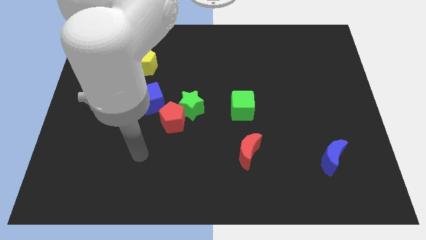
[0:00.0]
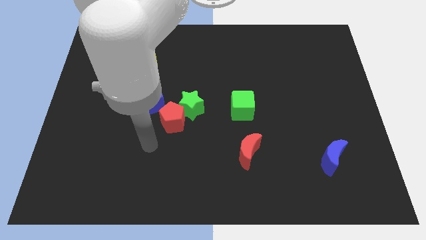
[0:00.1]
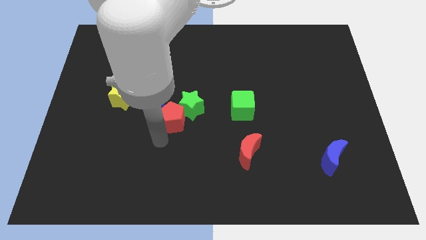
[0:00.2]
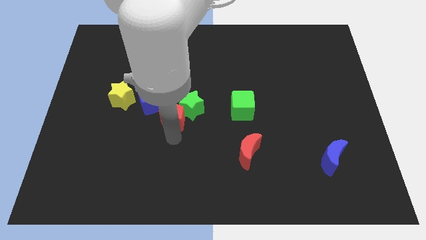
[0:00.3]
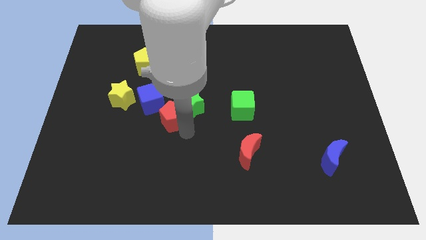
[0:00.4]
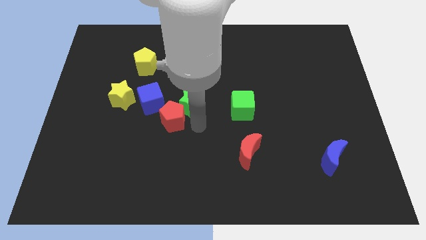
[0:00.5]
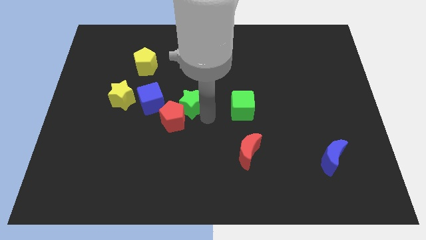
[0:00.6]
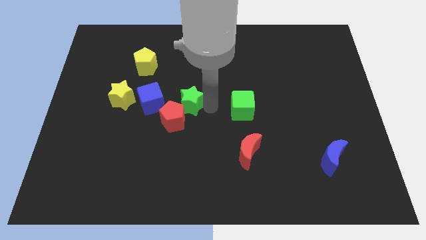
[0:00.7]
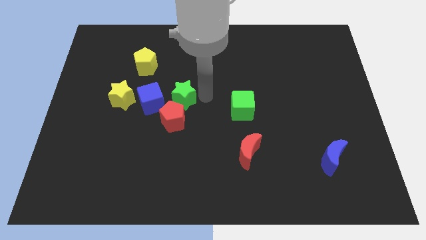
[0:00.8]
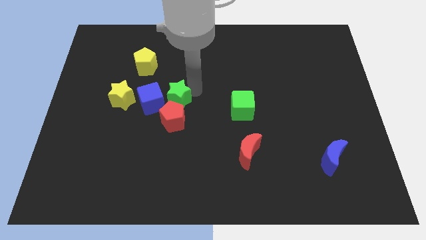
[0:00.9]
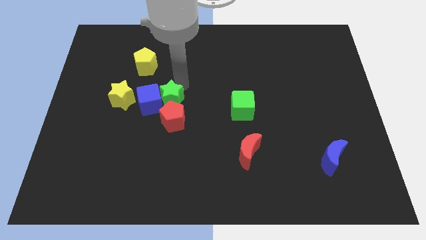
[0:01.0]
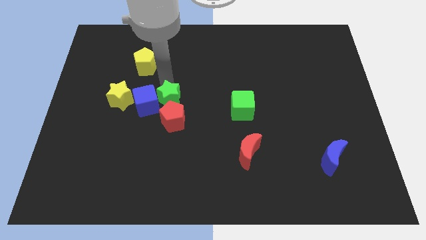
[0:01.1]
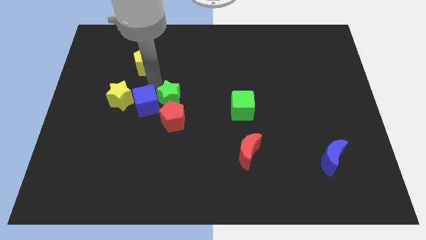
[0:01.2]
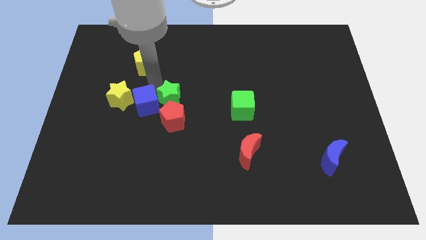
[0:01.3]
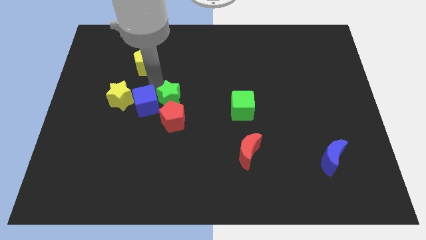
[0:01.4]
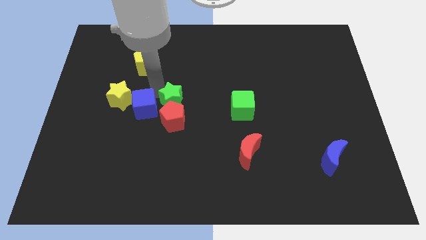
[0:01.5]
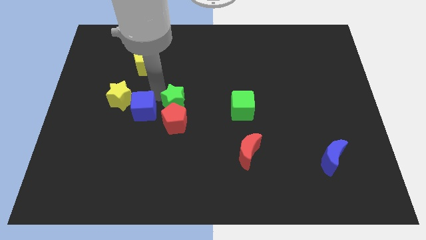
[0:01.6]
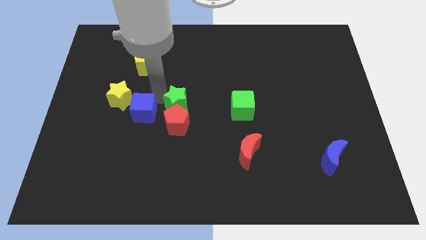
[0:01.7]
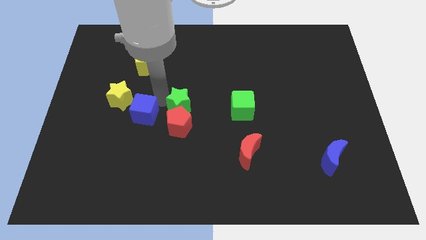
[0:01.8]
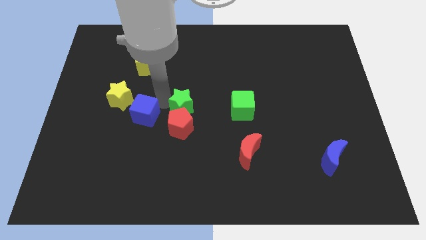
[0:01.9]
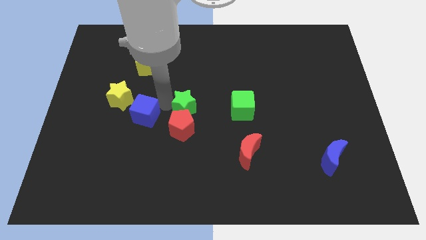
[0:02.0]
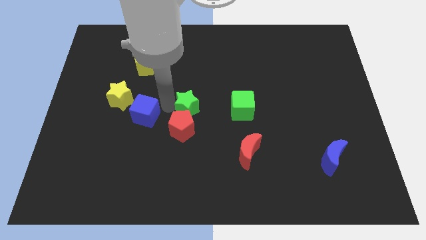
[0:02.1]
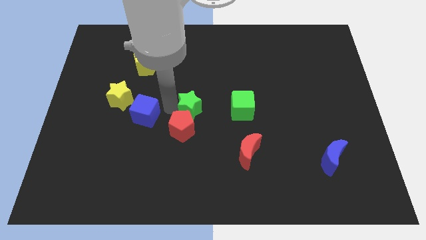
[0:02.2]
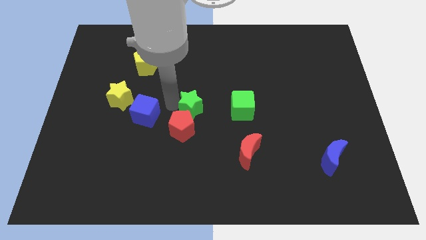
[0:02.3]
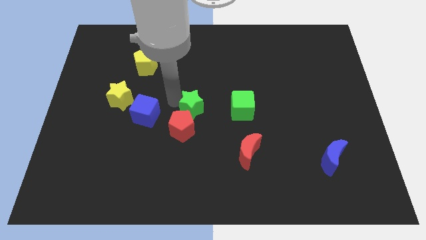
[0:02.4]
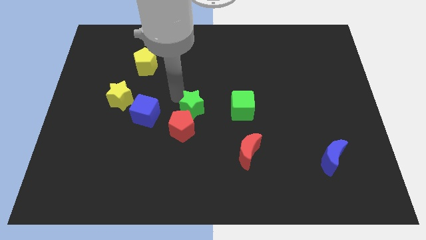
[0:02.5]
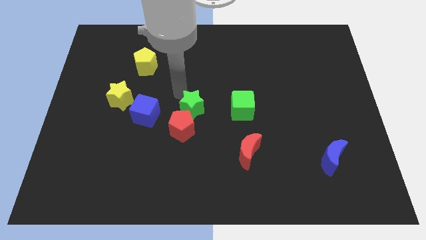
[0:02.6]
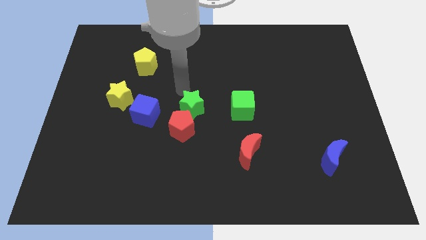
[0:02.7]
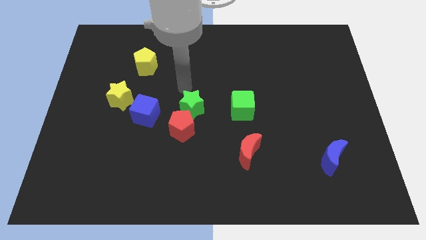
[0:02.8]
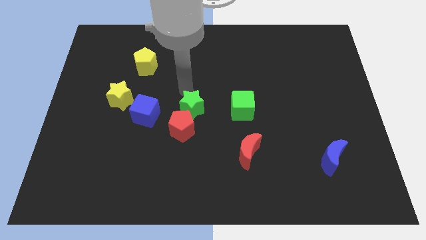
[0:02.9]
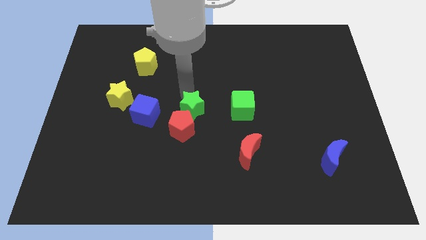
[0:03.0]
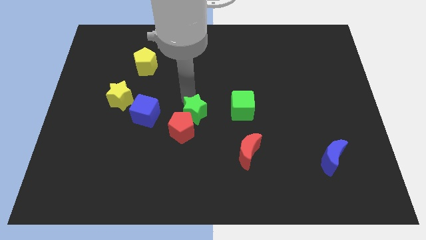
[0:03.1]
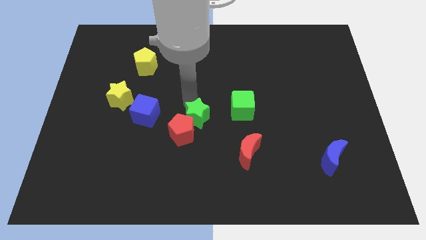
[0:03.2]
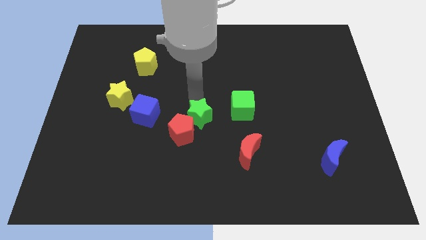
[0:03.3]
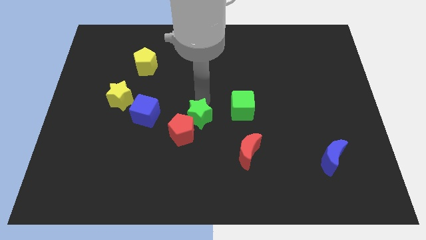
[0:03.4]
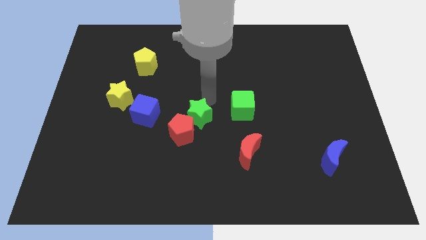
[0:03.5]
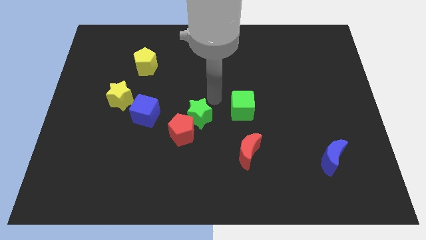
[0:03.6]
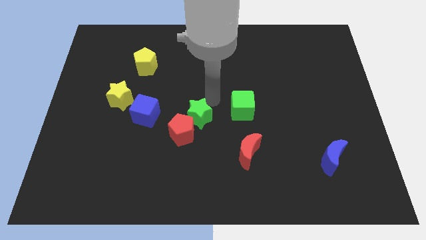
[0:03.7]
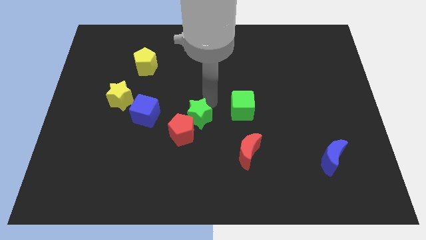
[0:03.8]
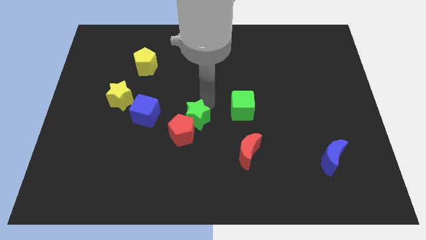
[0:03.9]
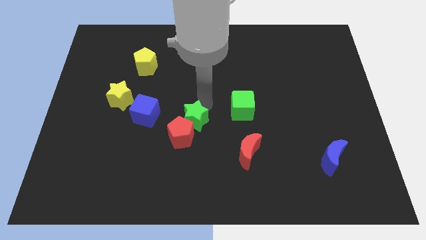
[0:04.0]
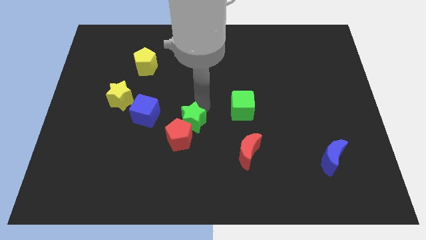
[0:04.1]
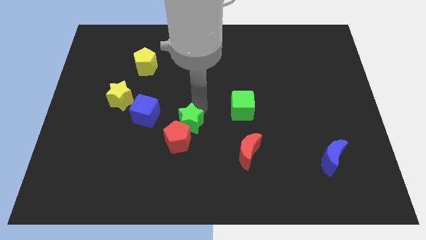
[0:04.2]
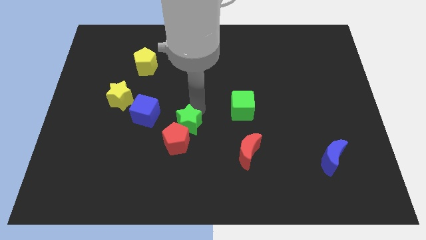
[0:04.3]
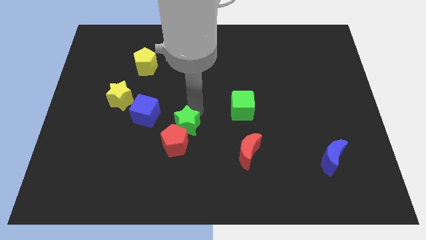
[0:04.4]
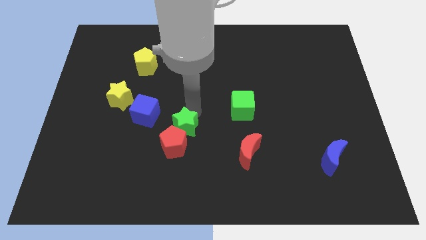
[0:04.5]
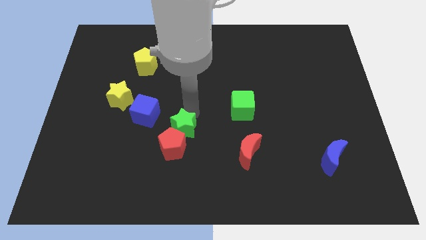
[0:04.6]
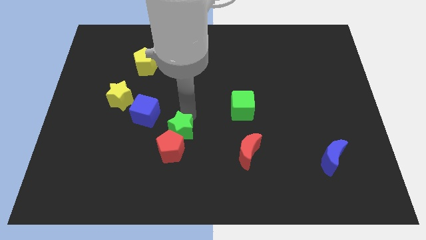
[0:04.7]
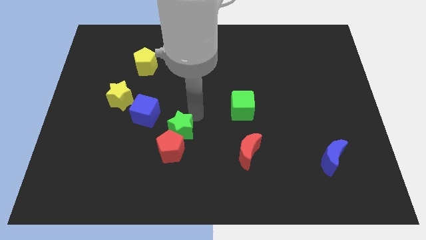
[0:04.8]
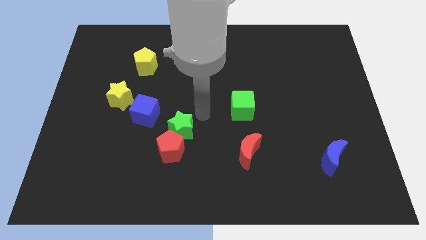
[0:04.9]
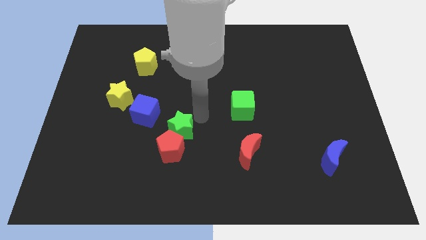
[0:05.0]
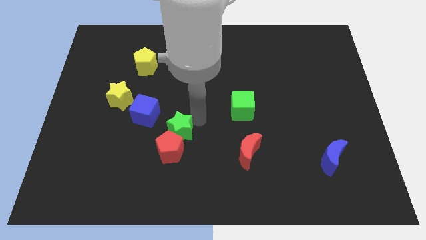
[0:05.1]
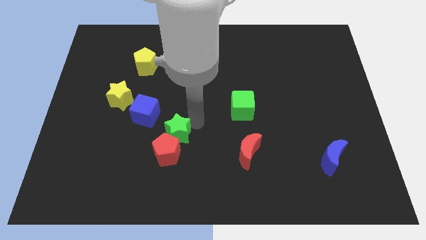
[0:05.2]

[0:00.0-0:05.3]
slide the green star diagonally down and left slightly

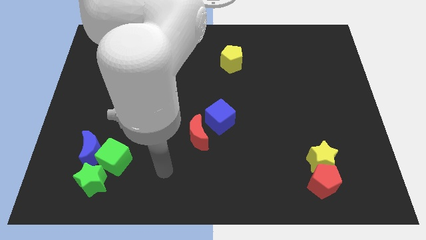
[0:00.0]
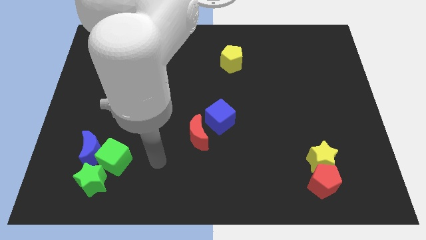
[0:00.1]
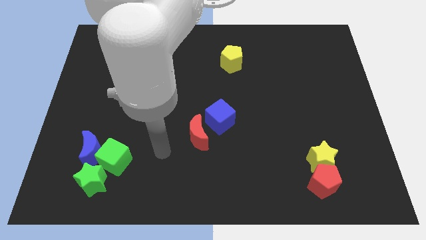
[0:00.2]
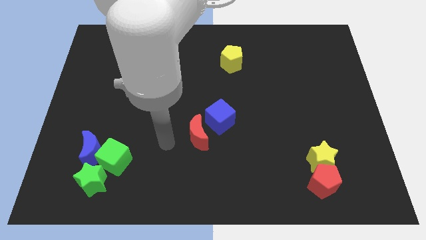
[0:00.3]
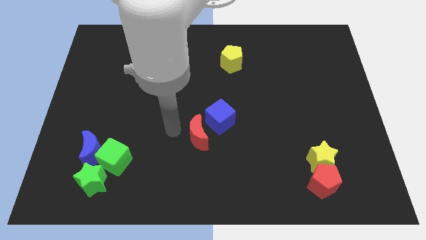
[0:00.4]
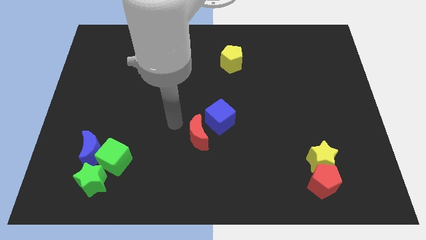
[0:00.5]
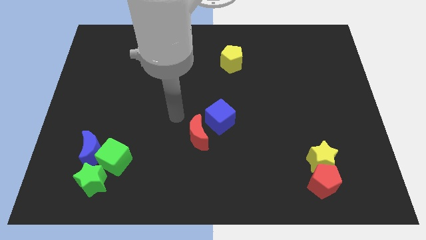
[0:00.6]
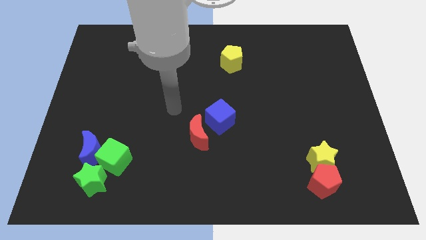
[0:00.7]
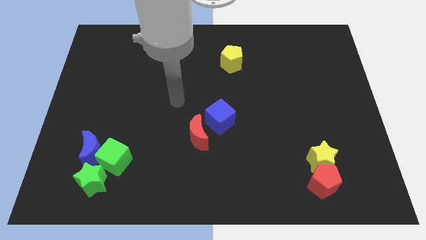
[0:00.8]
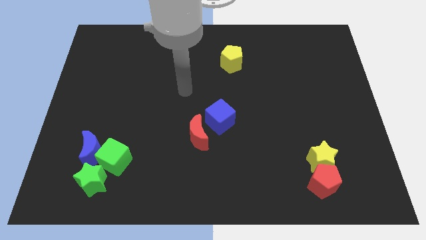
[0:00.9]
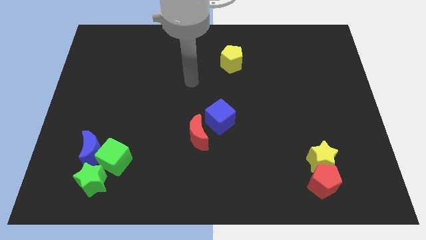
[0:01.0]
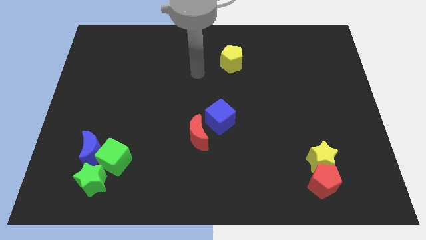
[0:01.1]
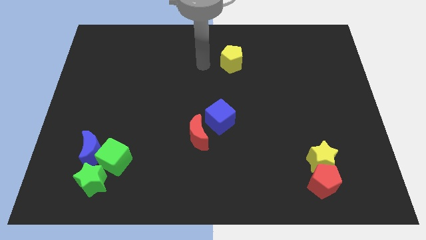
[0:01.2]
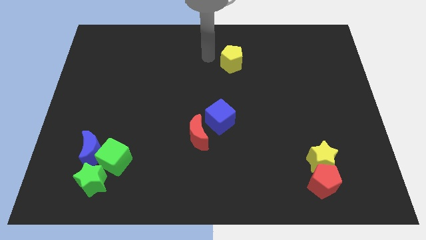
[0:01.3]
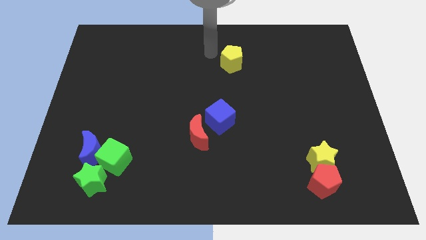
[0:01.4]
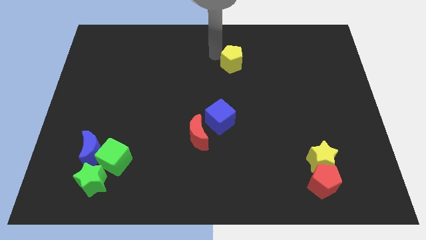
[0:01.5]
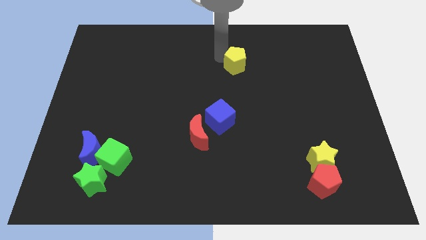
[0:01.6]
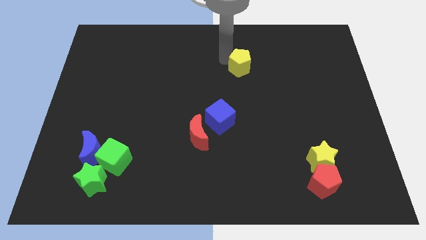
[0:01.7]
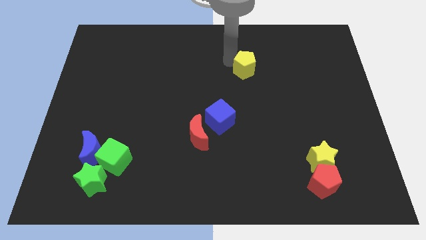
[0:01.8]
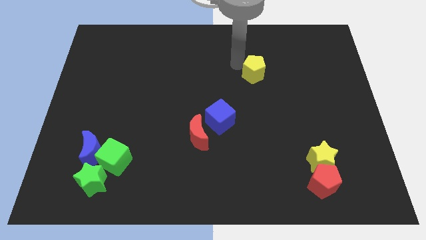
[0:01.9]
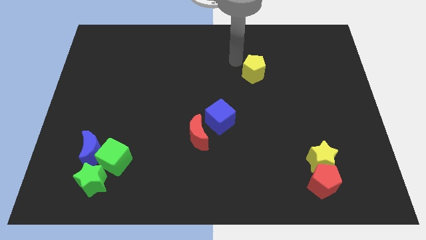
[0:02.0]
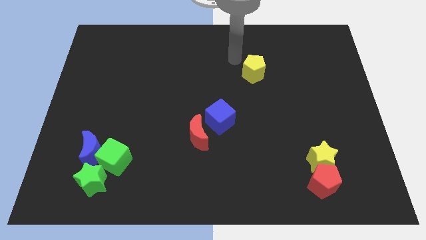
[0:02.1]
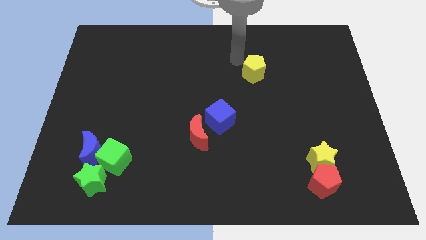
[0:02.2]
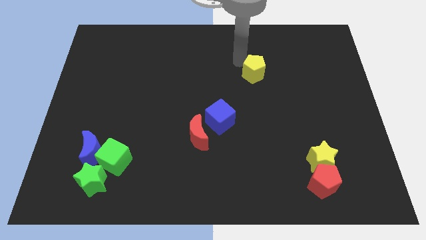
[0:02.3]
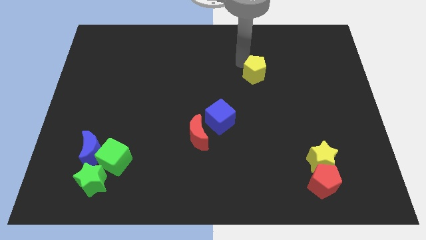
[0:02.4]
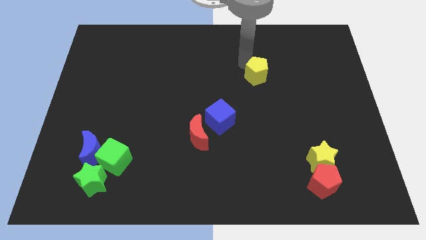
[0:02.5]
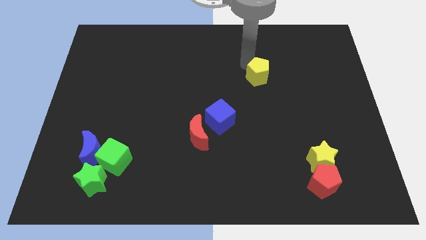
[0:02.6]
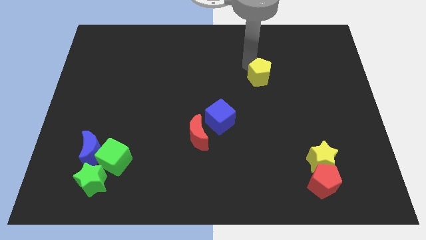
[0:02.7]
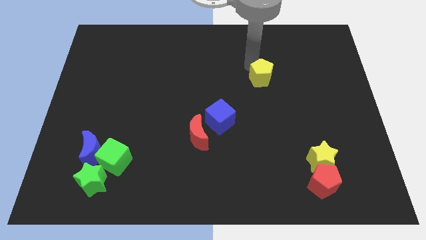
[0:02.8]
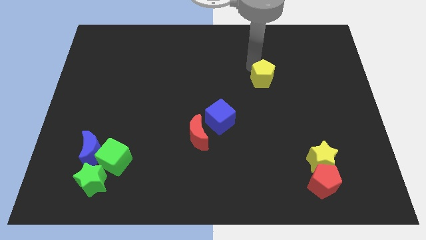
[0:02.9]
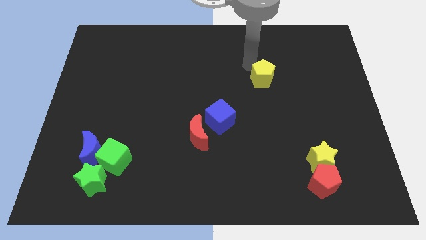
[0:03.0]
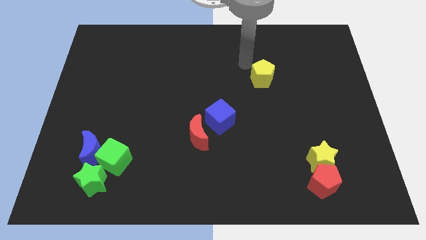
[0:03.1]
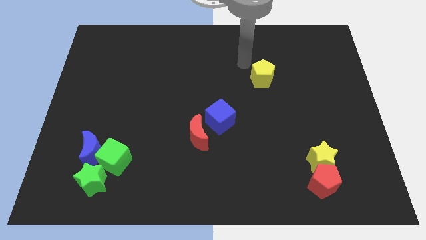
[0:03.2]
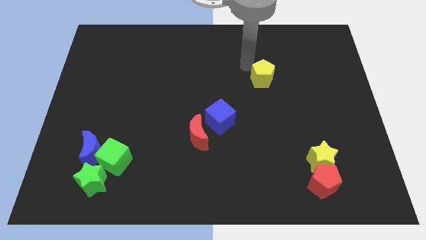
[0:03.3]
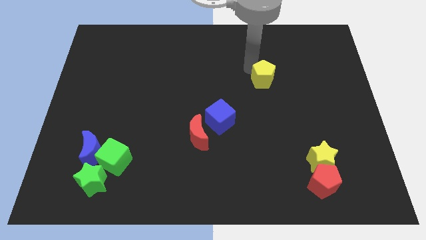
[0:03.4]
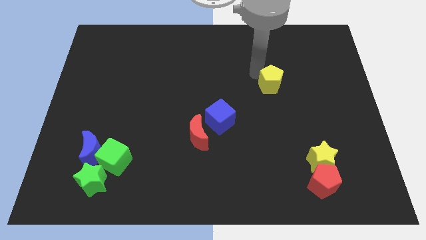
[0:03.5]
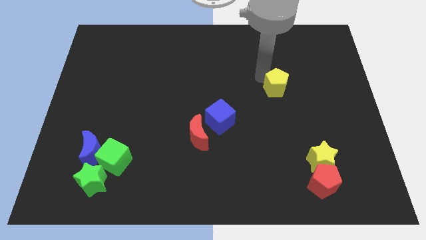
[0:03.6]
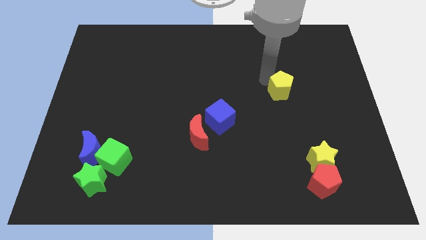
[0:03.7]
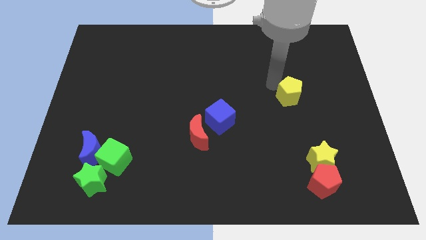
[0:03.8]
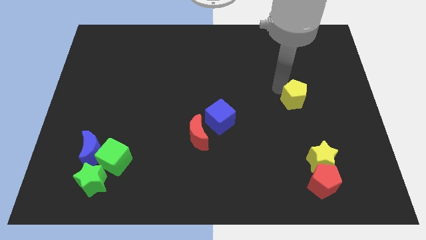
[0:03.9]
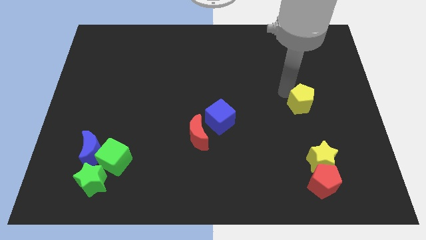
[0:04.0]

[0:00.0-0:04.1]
move the yellow pentagon diagonally down and to the right
